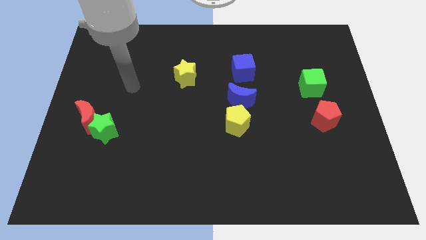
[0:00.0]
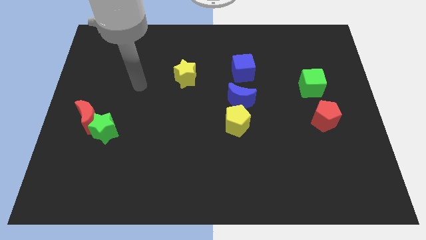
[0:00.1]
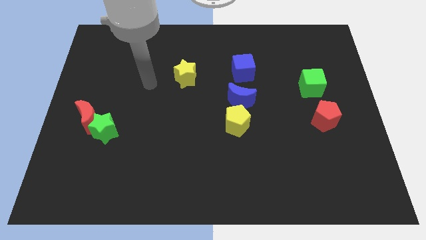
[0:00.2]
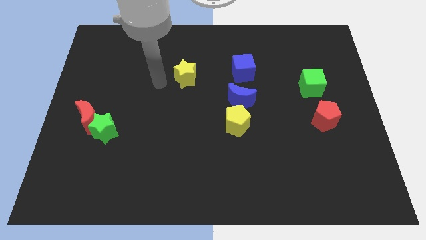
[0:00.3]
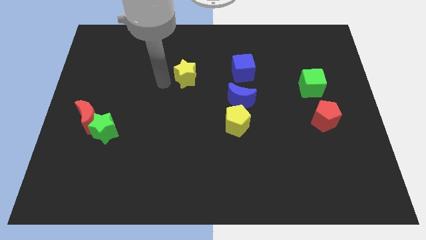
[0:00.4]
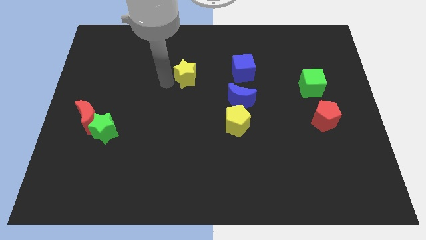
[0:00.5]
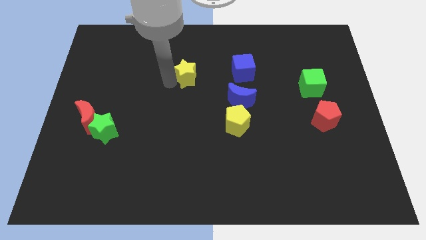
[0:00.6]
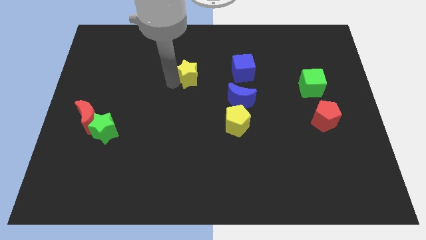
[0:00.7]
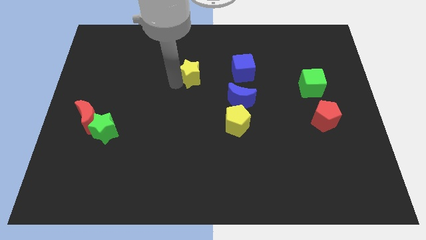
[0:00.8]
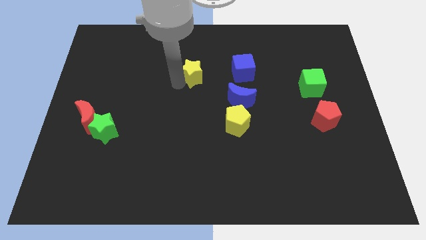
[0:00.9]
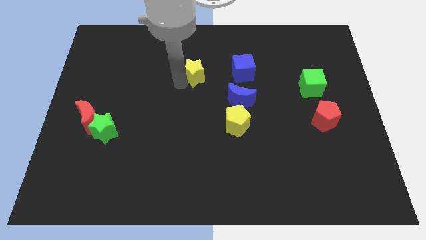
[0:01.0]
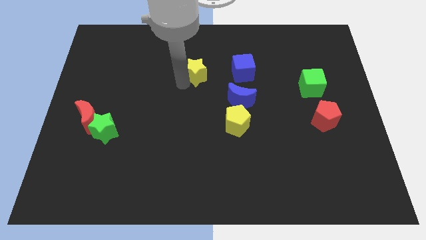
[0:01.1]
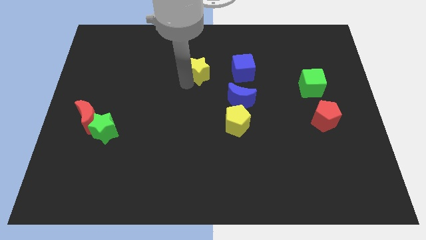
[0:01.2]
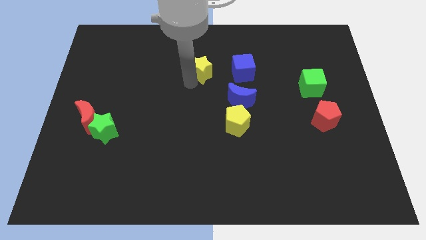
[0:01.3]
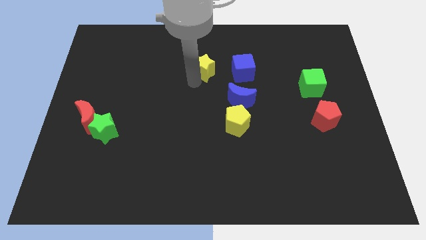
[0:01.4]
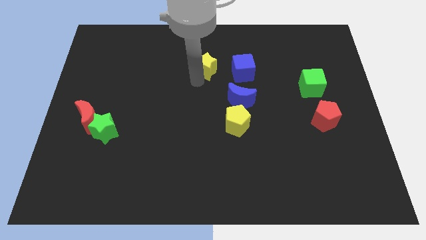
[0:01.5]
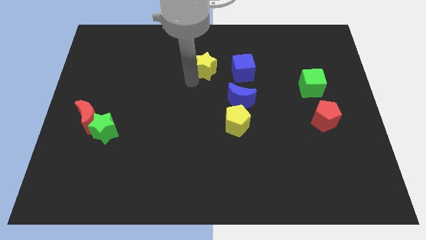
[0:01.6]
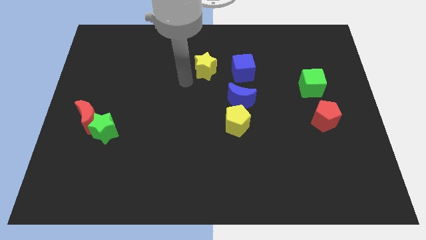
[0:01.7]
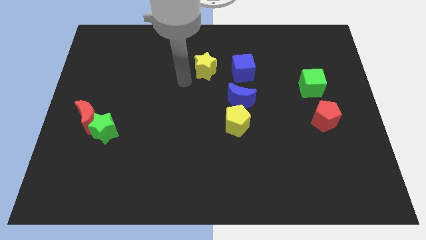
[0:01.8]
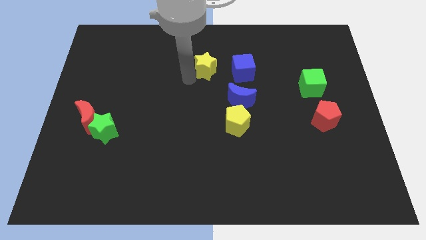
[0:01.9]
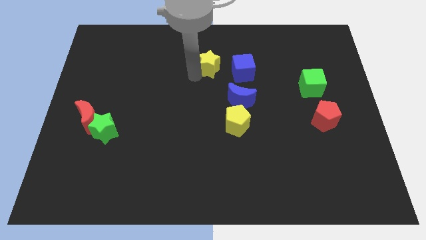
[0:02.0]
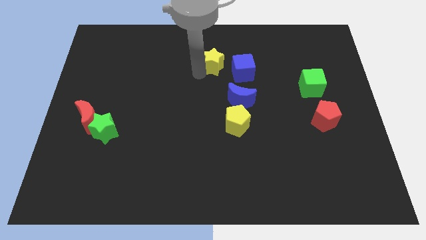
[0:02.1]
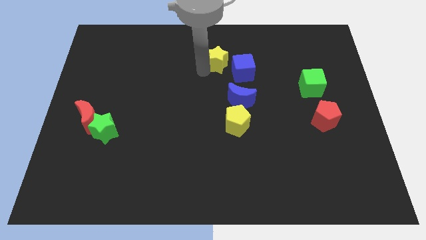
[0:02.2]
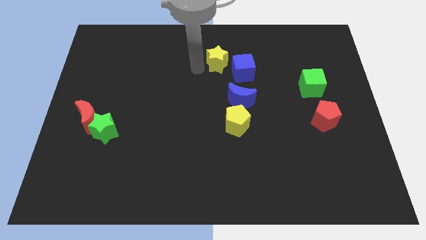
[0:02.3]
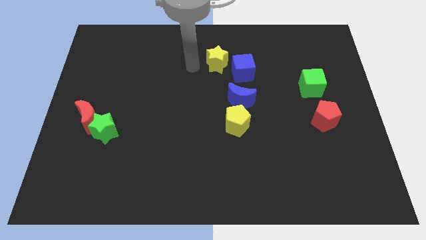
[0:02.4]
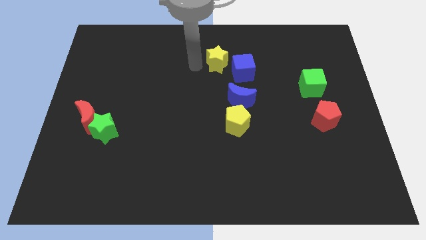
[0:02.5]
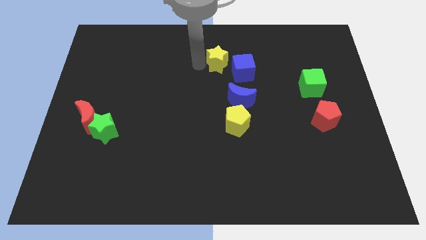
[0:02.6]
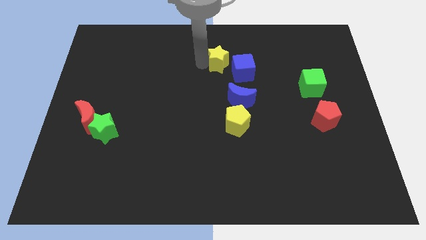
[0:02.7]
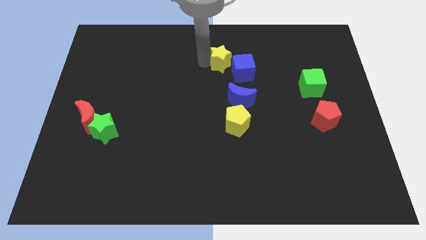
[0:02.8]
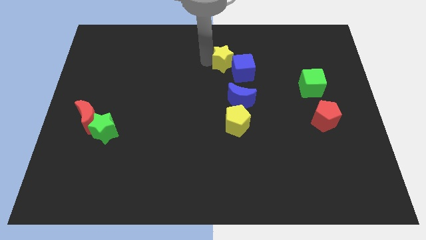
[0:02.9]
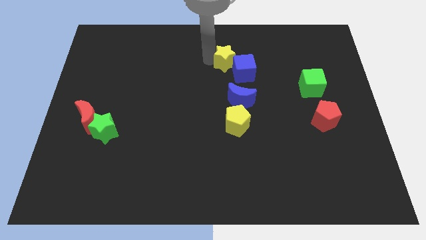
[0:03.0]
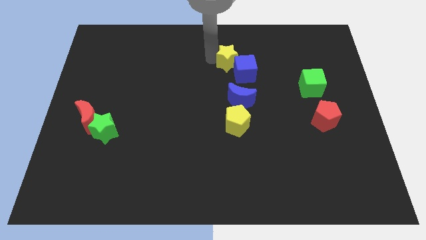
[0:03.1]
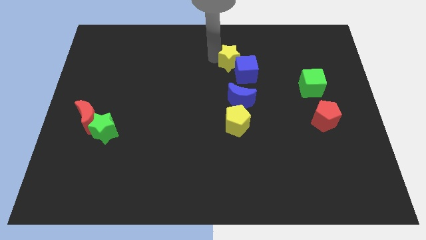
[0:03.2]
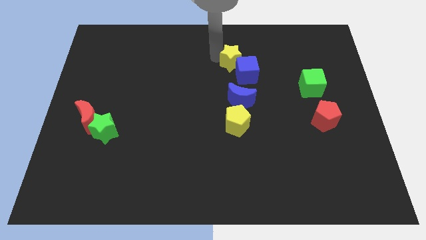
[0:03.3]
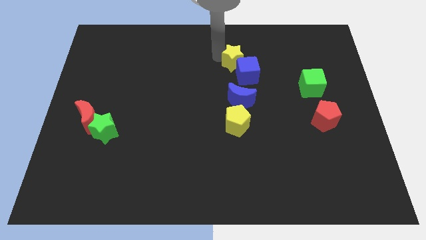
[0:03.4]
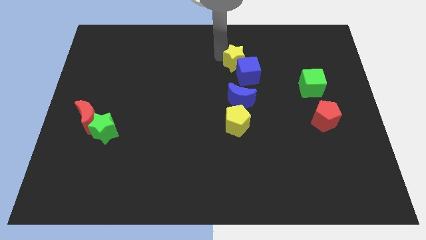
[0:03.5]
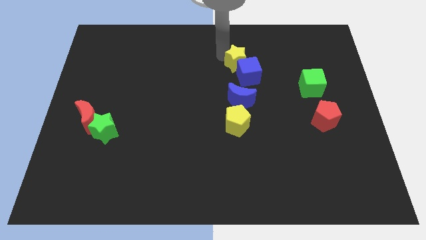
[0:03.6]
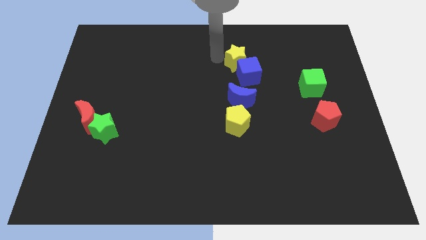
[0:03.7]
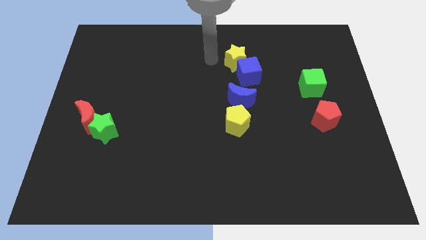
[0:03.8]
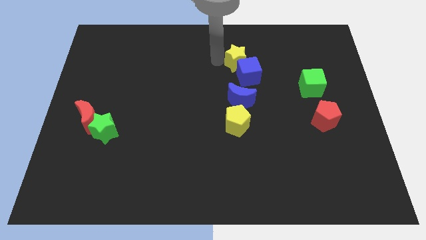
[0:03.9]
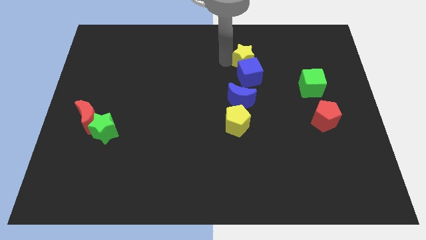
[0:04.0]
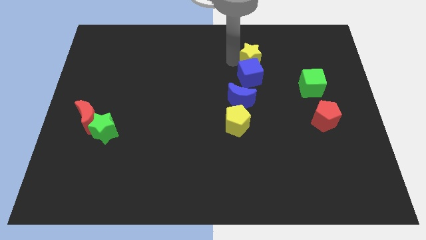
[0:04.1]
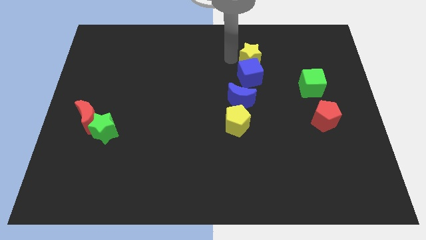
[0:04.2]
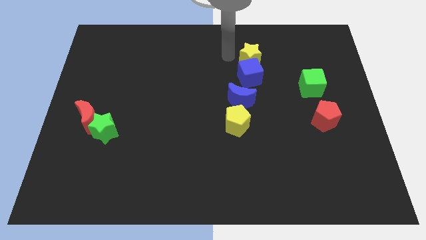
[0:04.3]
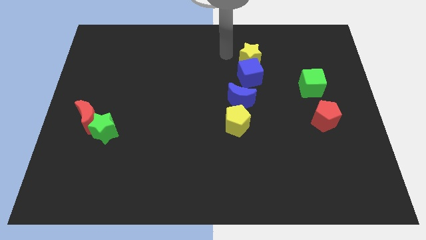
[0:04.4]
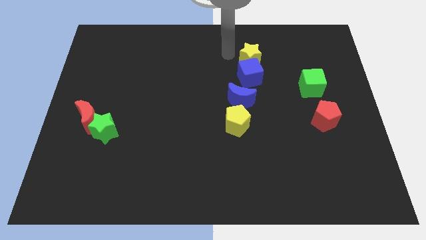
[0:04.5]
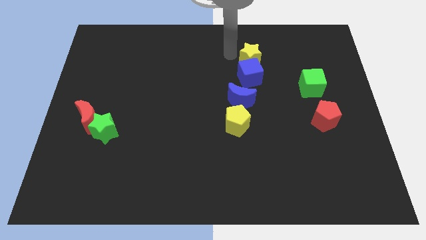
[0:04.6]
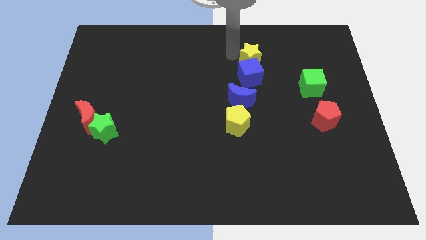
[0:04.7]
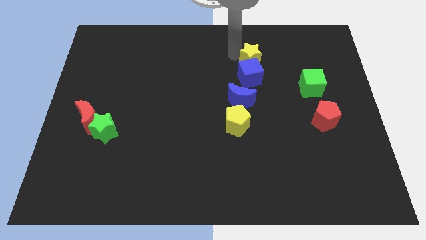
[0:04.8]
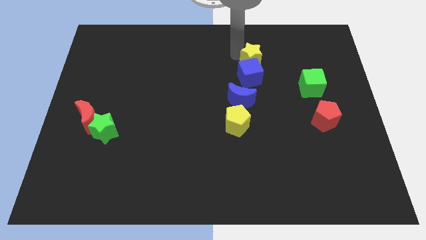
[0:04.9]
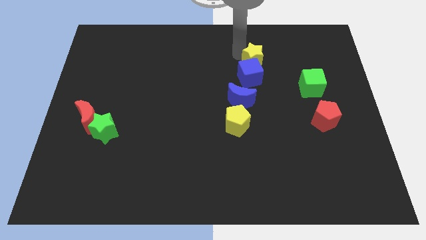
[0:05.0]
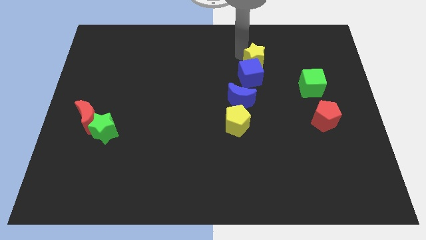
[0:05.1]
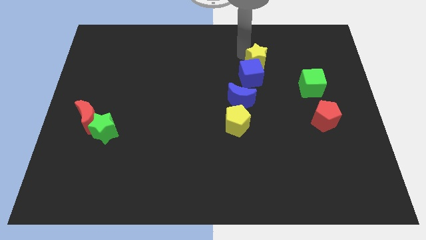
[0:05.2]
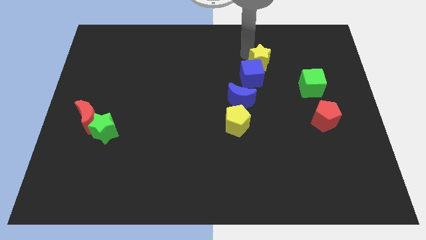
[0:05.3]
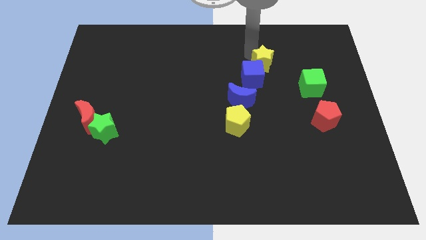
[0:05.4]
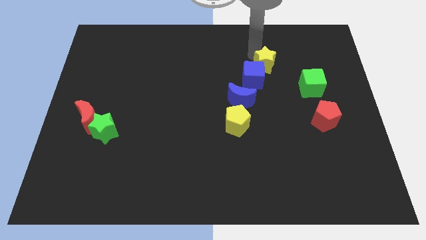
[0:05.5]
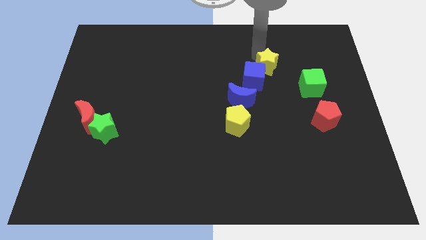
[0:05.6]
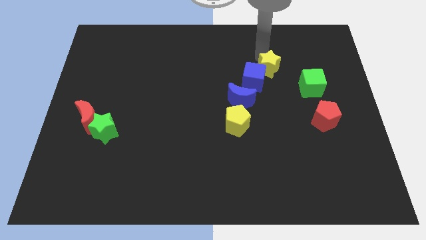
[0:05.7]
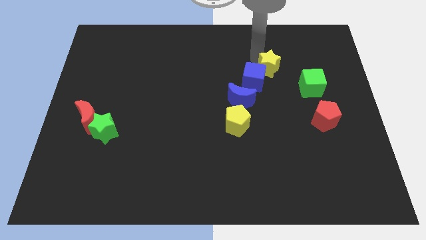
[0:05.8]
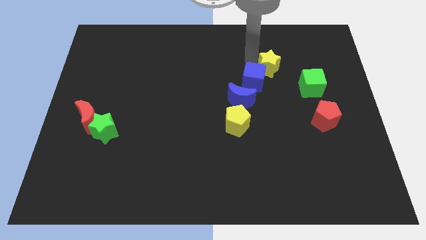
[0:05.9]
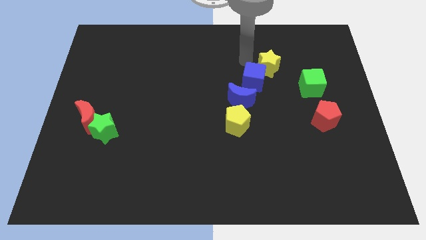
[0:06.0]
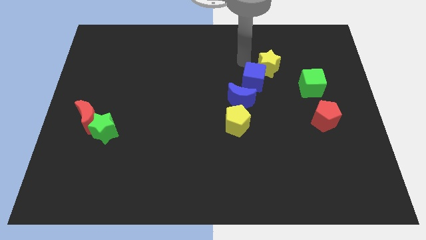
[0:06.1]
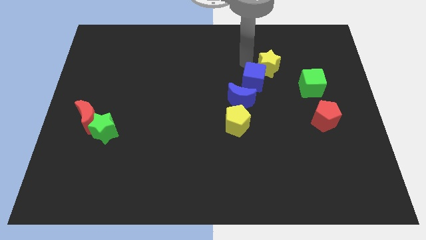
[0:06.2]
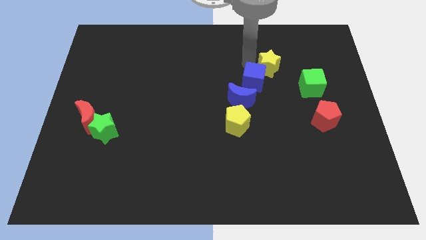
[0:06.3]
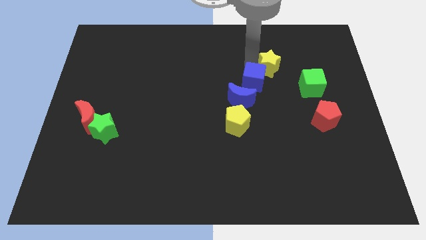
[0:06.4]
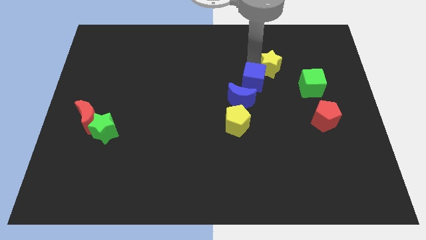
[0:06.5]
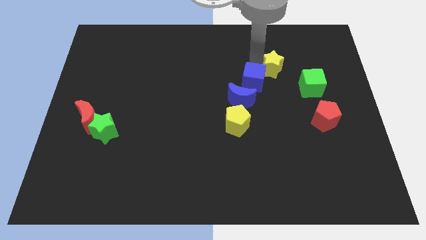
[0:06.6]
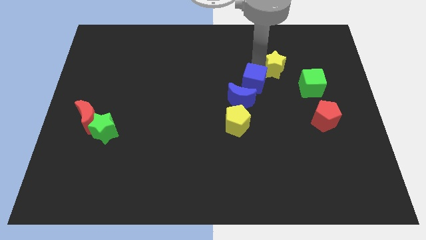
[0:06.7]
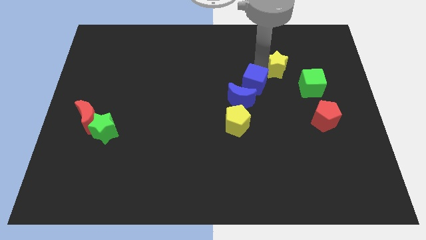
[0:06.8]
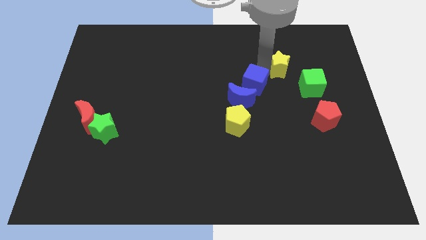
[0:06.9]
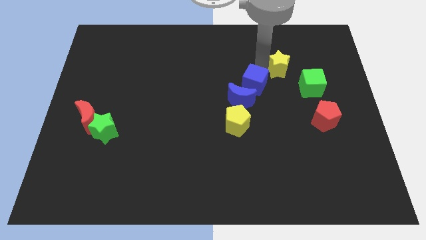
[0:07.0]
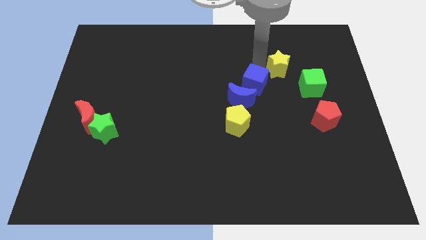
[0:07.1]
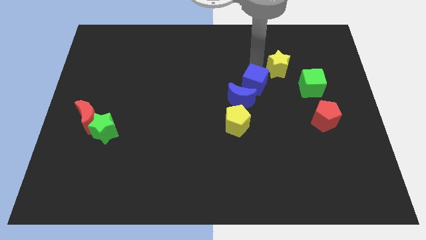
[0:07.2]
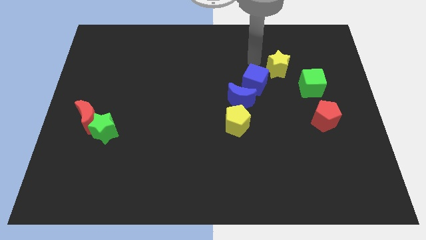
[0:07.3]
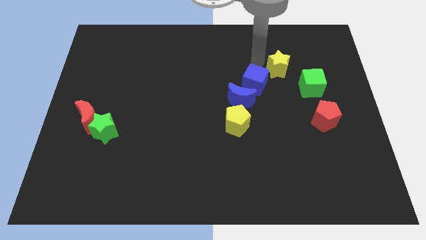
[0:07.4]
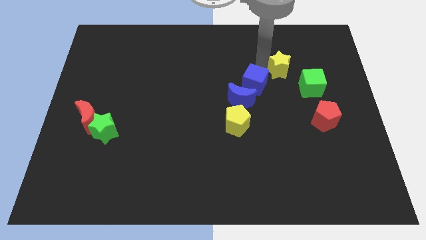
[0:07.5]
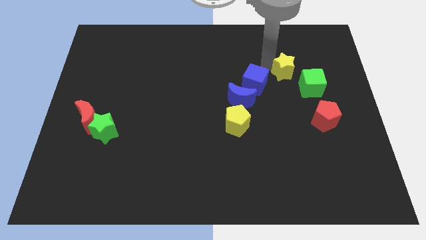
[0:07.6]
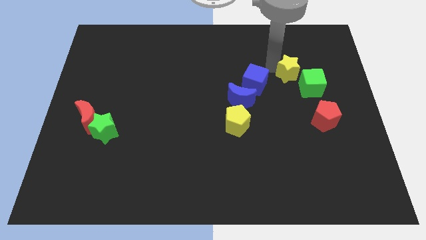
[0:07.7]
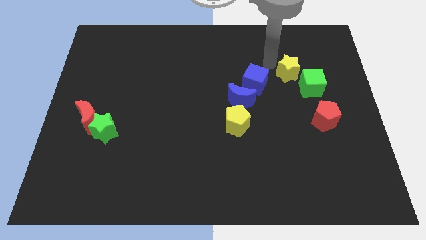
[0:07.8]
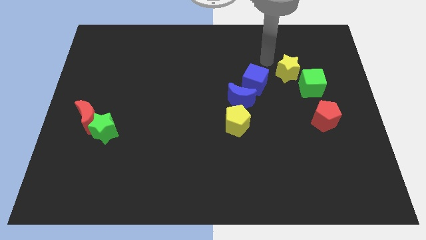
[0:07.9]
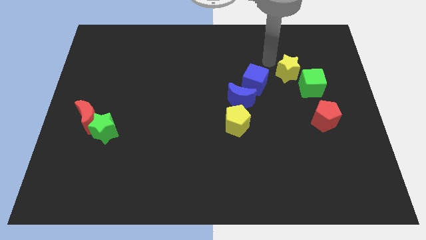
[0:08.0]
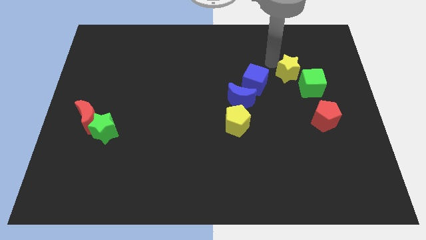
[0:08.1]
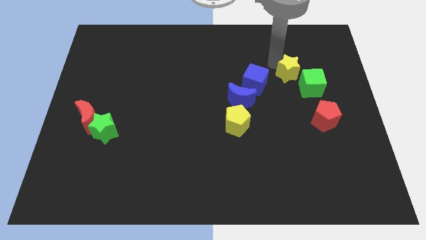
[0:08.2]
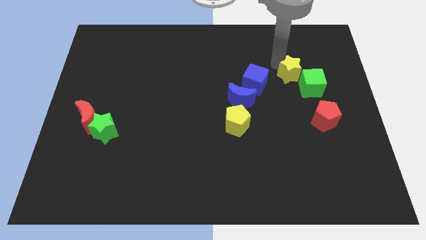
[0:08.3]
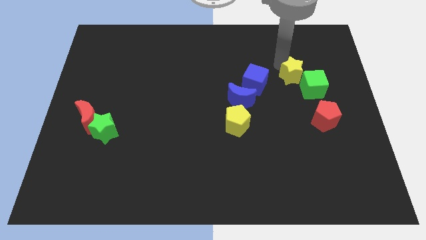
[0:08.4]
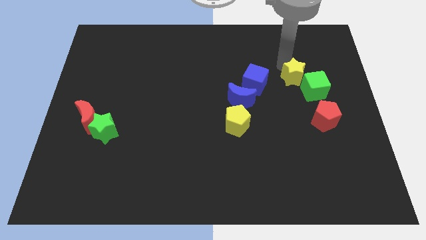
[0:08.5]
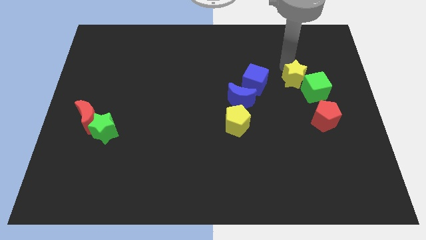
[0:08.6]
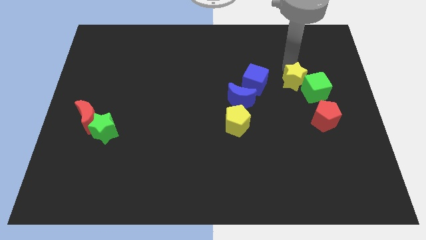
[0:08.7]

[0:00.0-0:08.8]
put the yellow star next to the green cube
